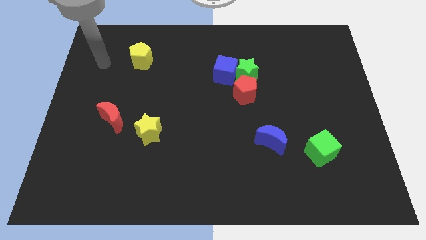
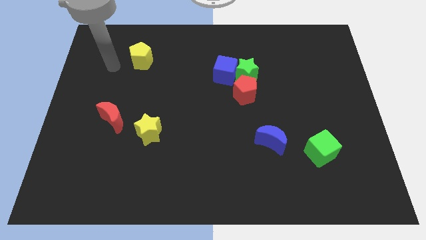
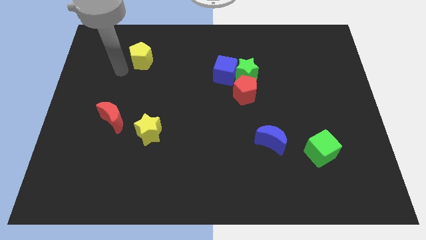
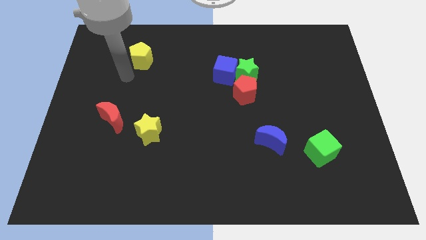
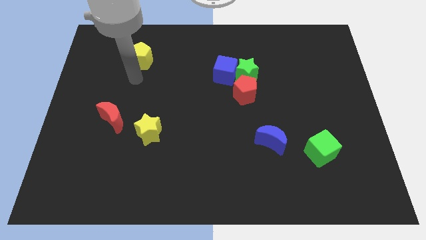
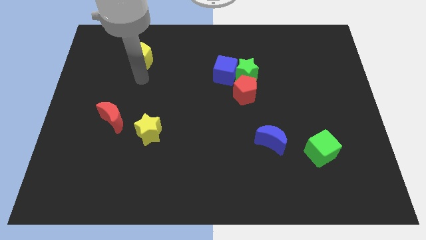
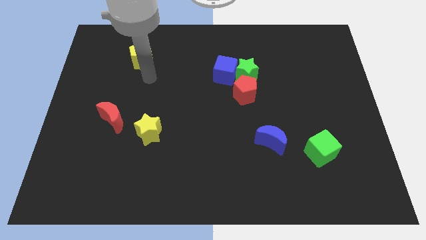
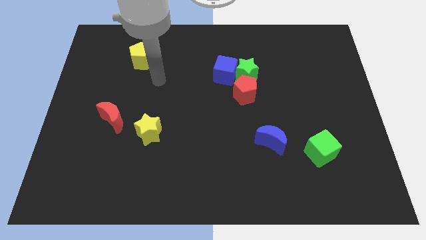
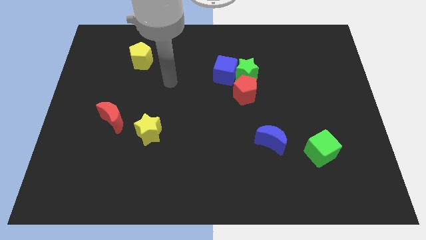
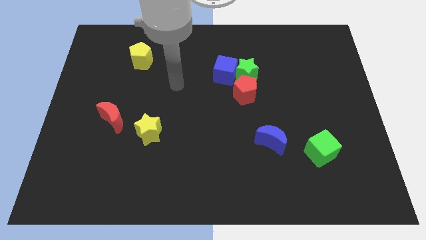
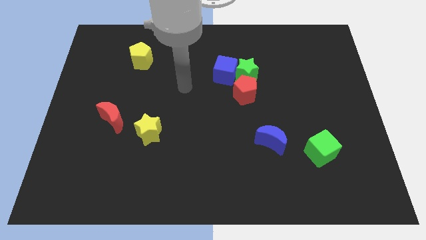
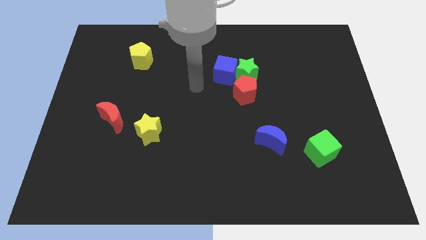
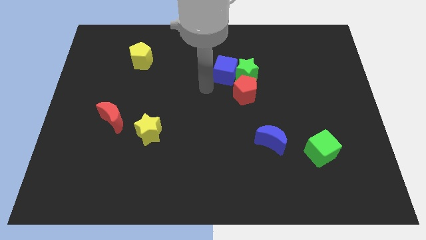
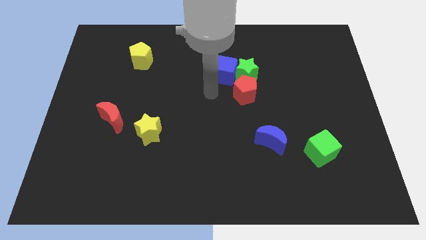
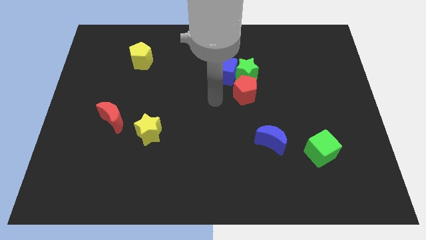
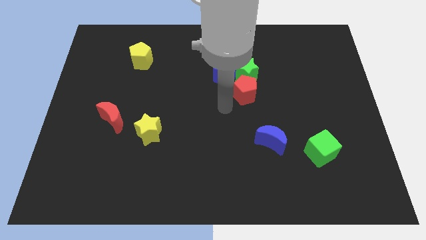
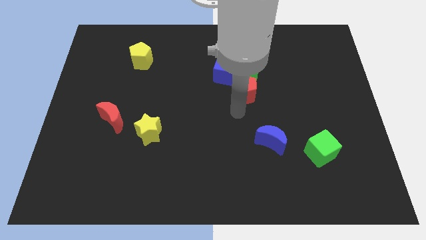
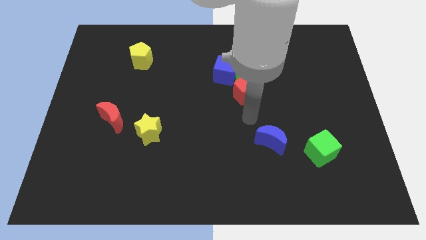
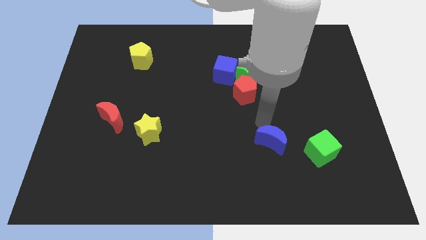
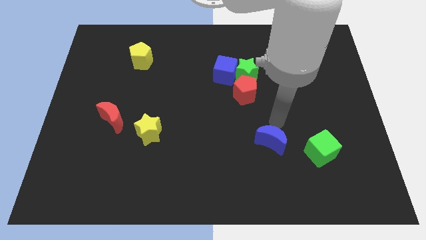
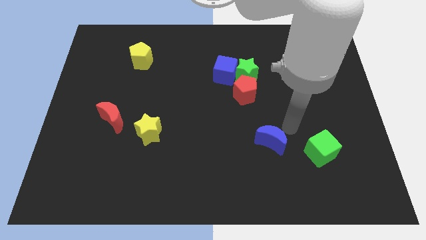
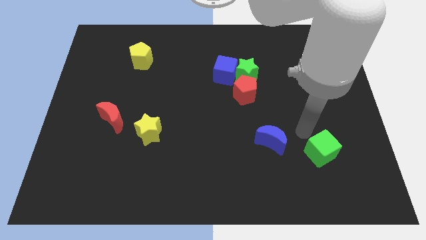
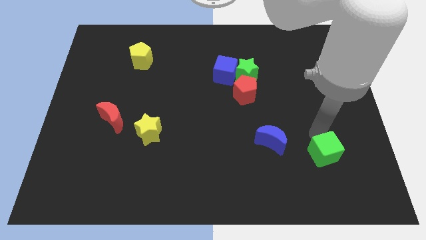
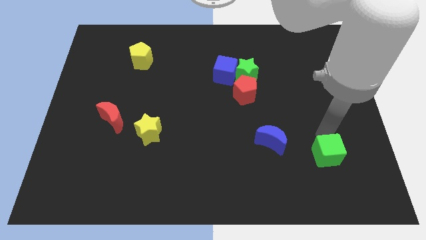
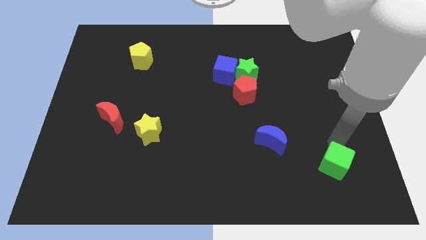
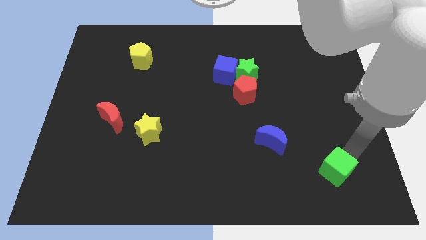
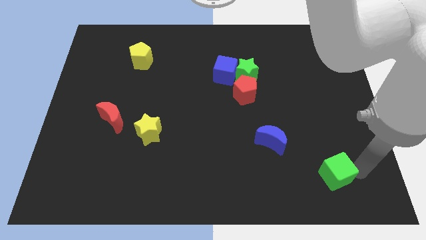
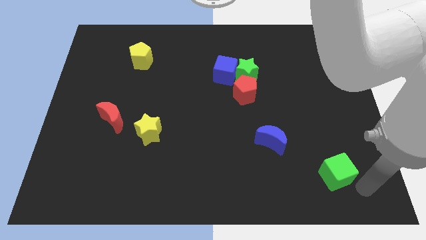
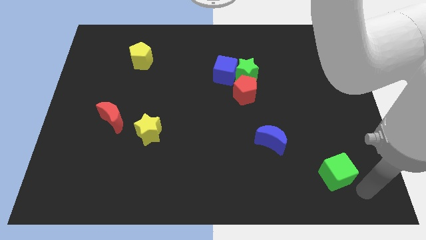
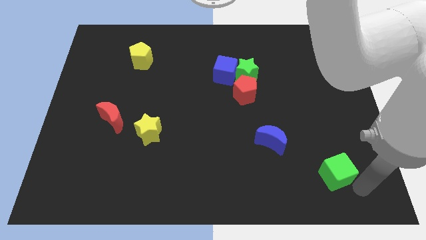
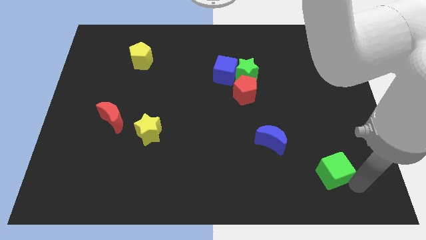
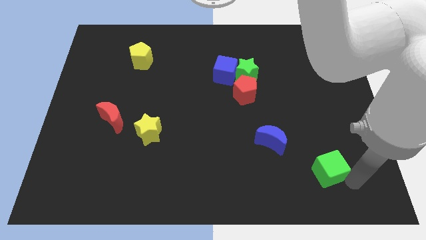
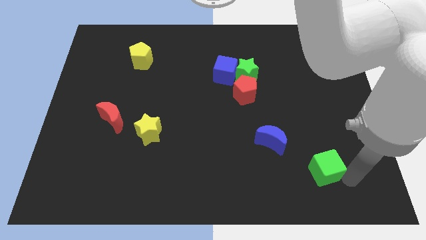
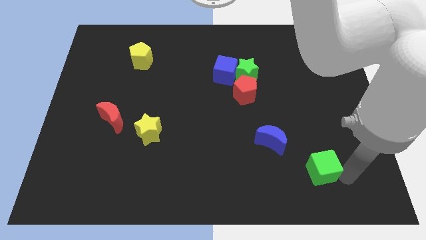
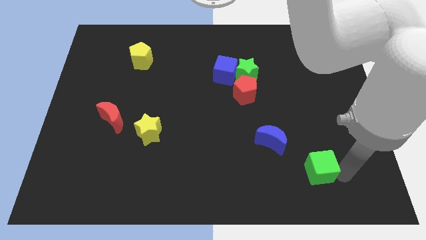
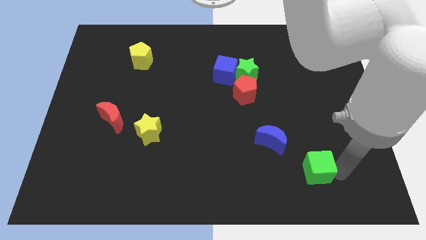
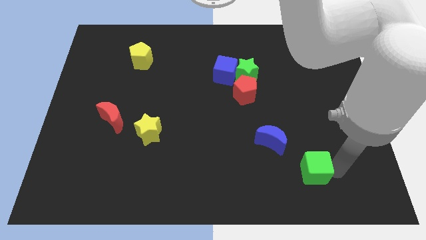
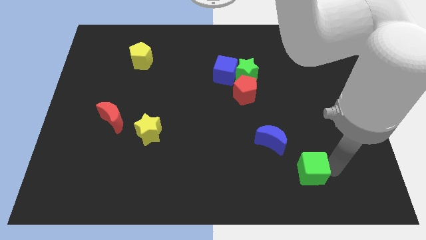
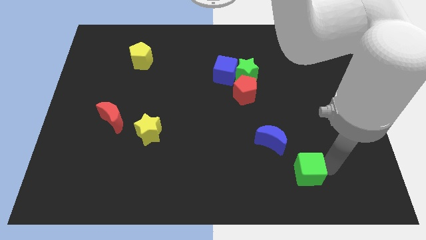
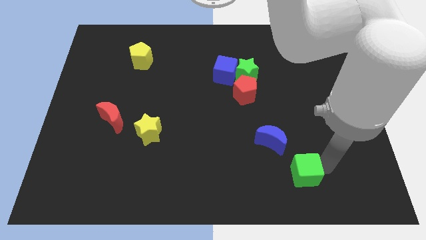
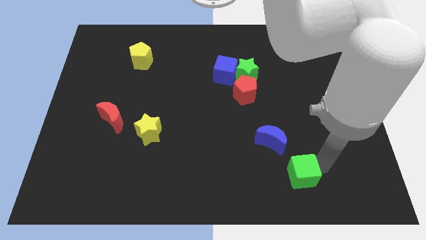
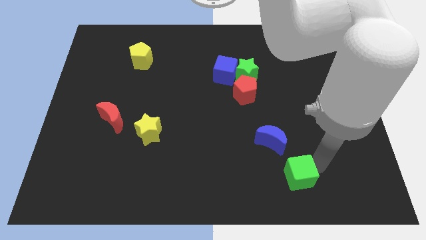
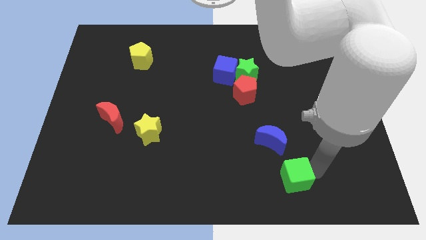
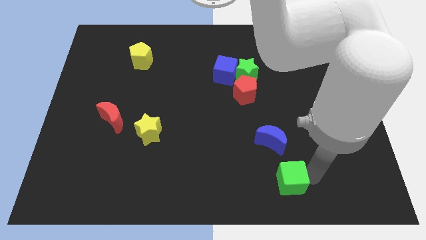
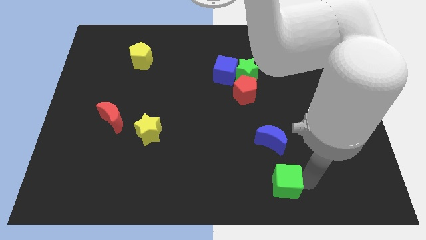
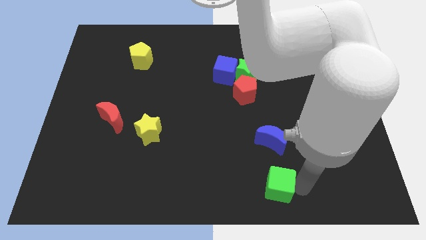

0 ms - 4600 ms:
slightly push the green cube left

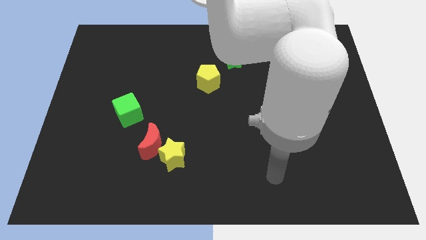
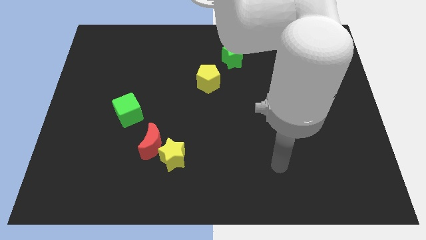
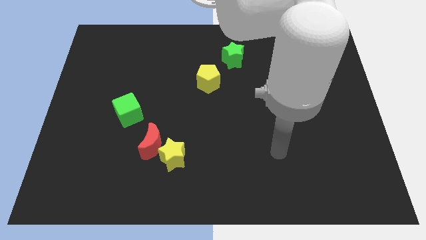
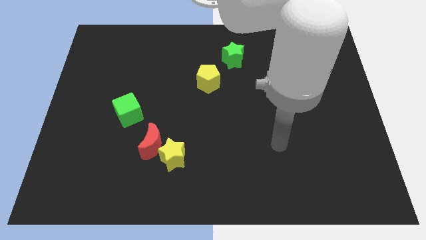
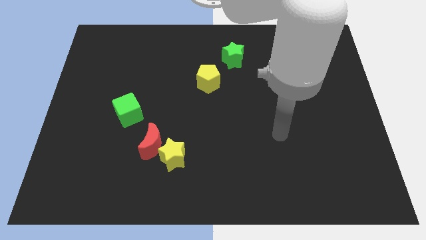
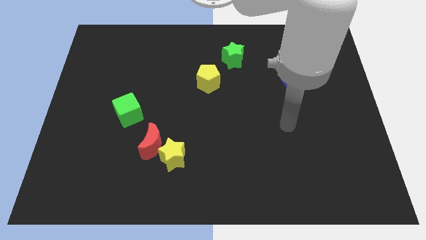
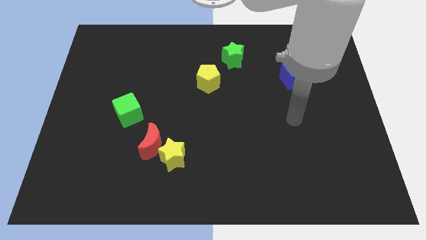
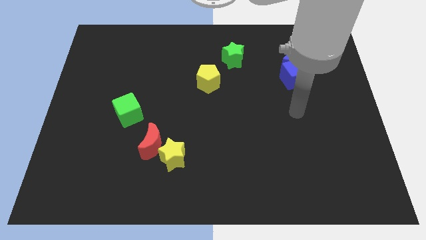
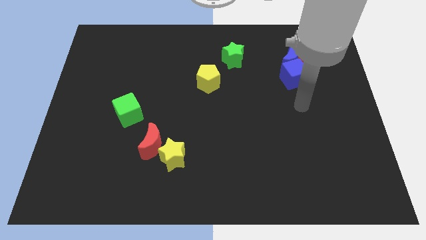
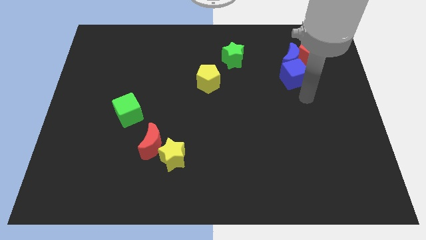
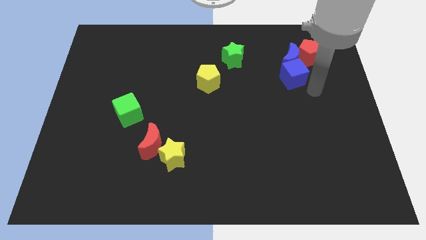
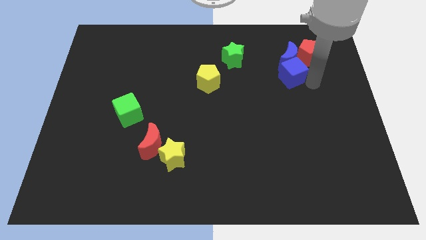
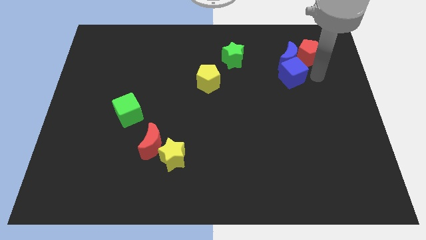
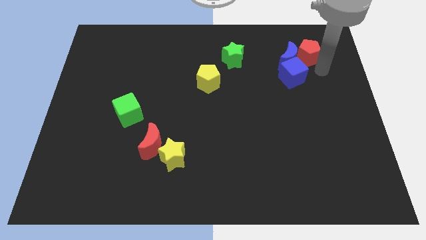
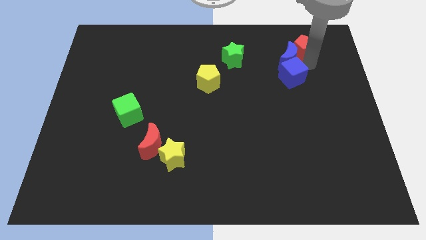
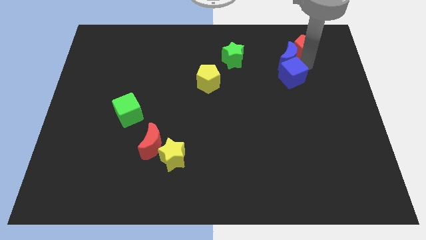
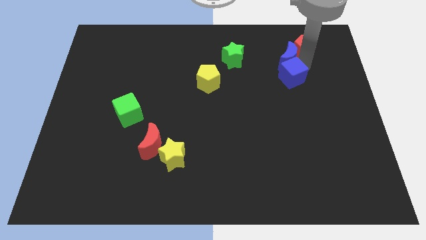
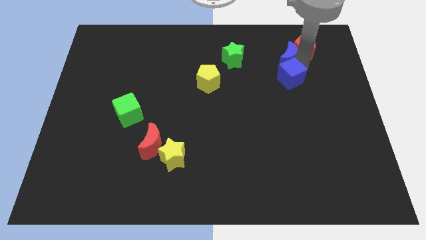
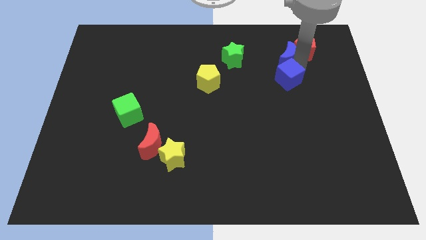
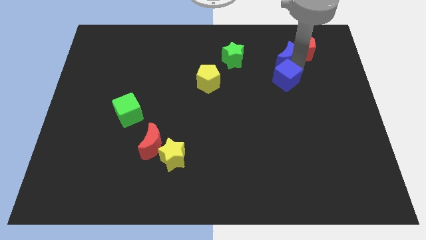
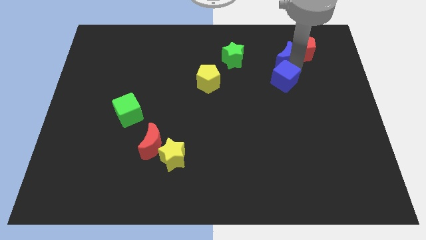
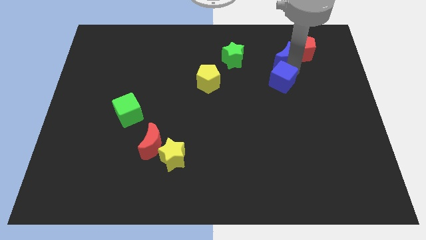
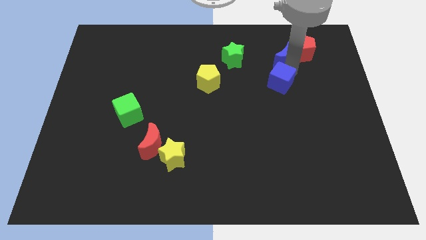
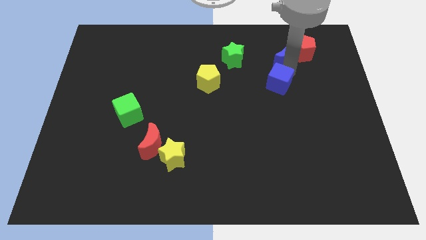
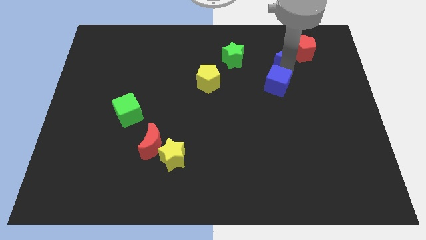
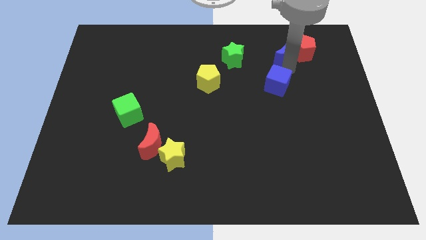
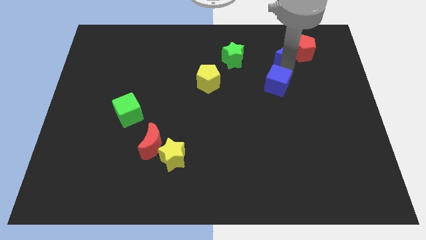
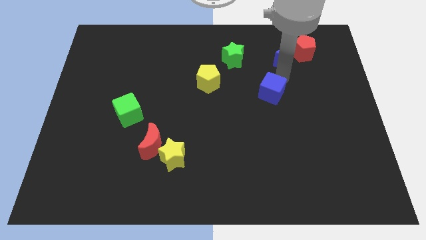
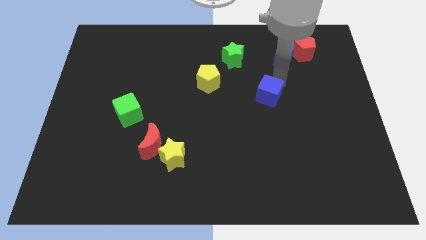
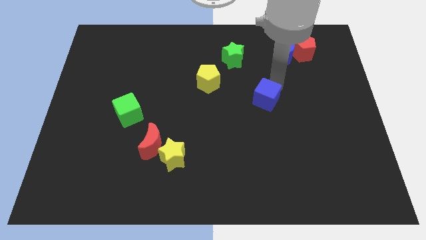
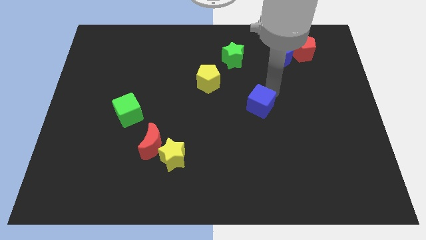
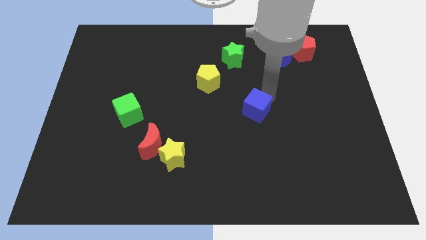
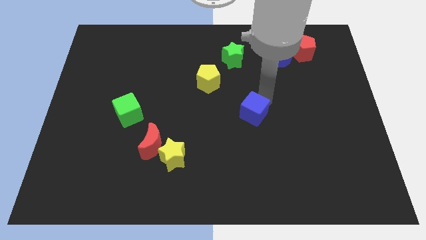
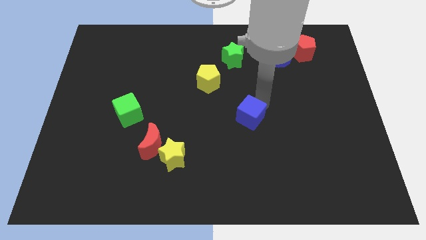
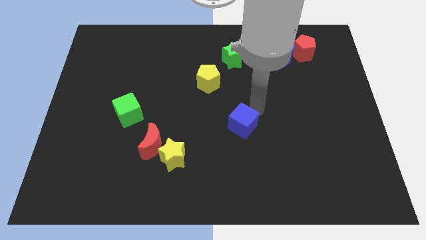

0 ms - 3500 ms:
push the blue cube downwards and then to the left
